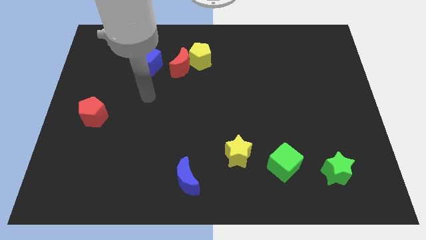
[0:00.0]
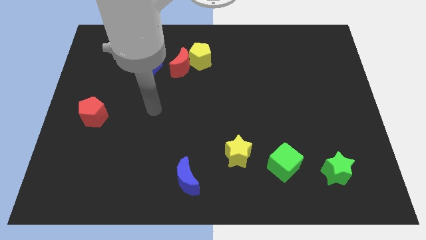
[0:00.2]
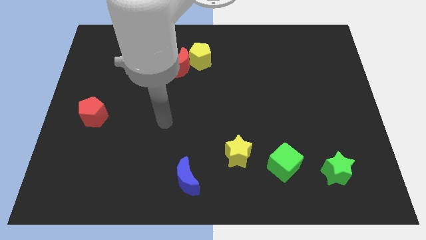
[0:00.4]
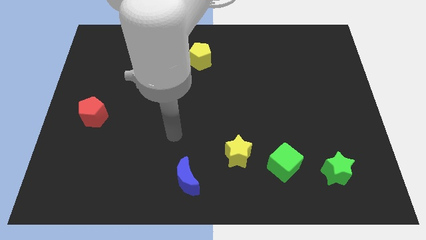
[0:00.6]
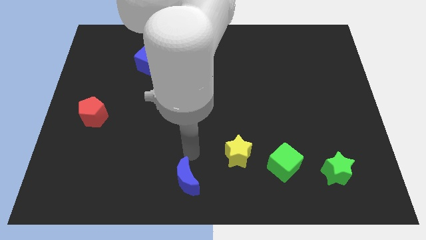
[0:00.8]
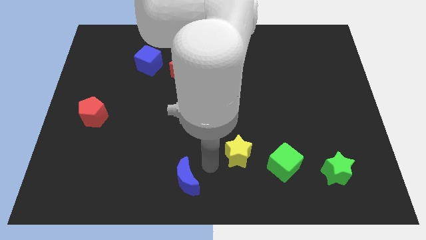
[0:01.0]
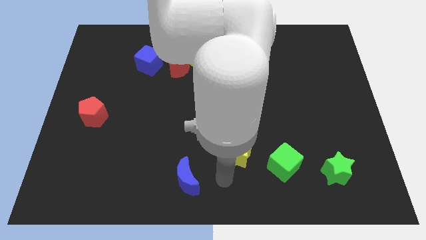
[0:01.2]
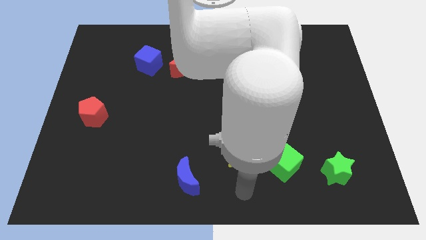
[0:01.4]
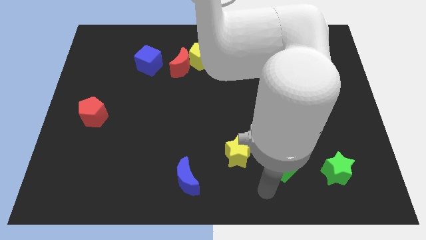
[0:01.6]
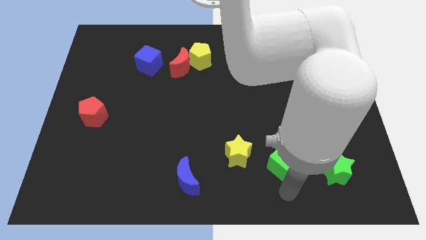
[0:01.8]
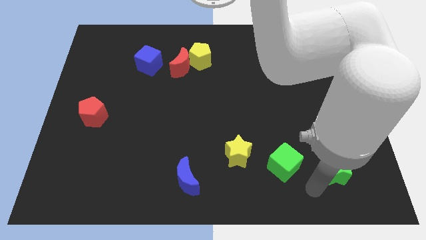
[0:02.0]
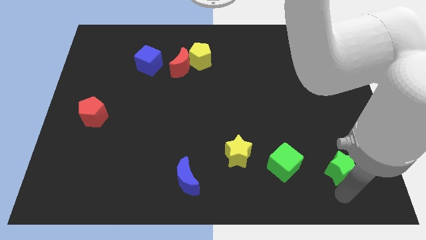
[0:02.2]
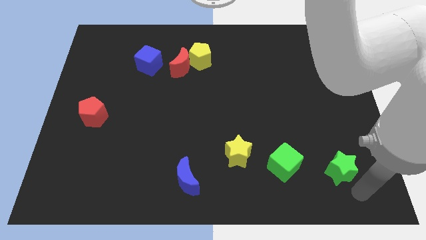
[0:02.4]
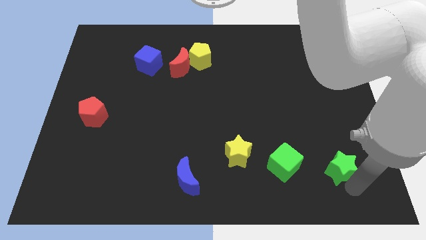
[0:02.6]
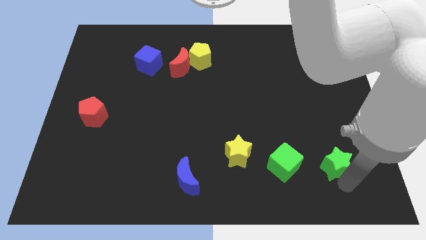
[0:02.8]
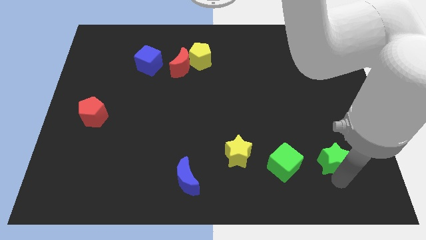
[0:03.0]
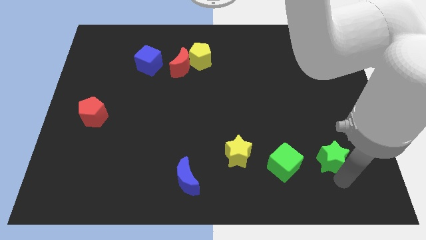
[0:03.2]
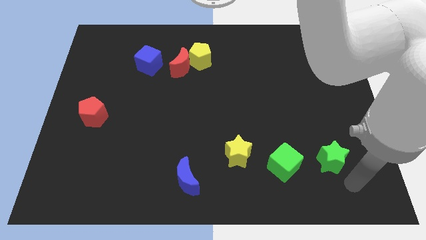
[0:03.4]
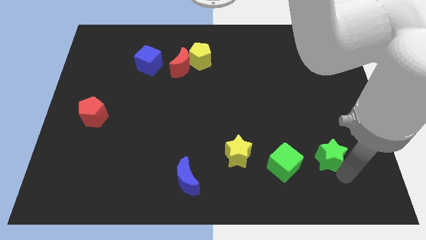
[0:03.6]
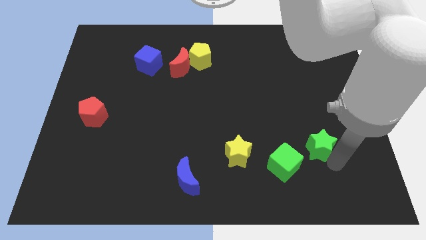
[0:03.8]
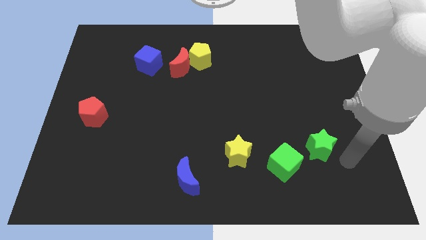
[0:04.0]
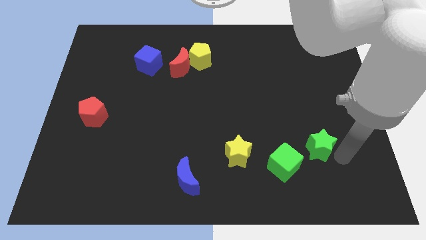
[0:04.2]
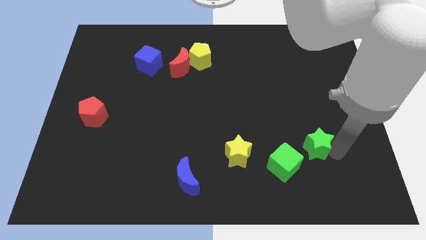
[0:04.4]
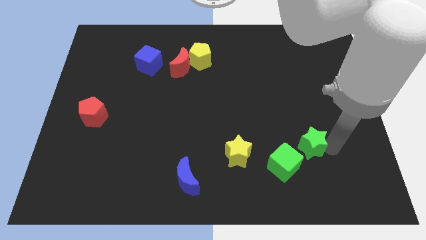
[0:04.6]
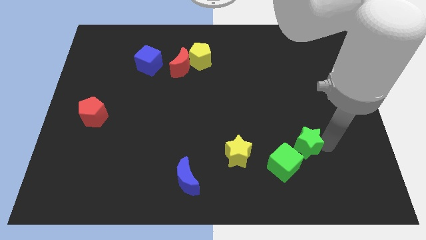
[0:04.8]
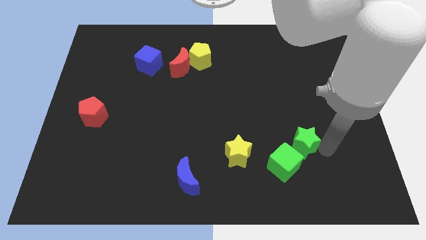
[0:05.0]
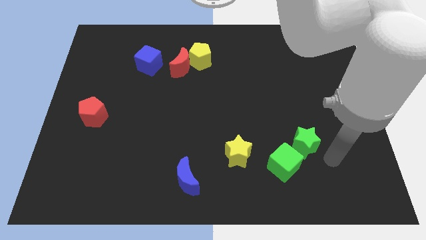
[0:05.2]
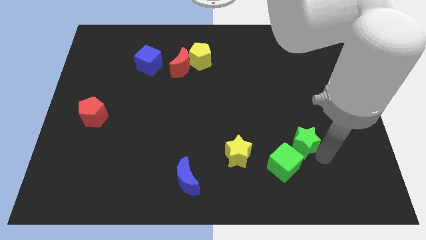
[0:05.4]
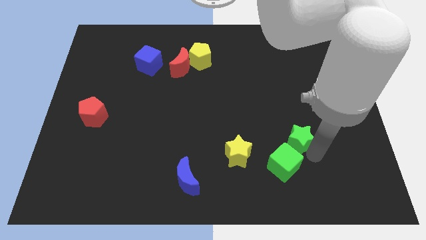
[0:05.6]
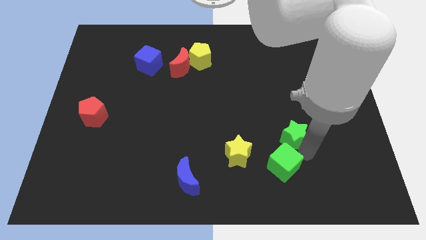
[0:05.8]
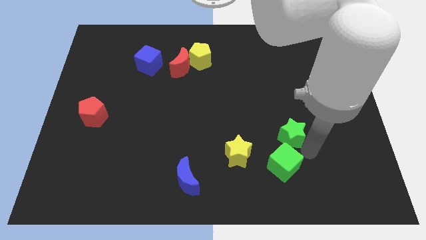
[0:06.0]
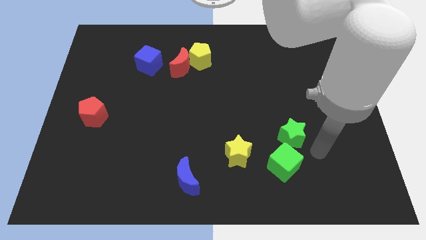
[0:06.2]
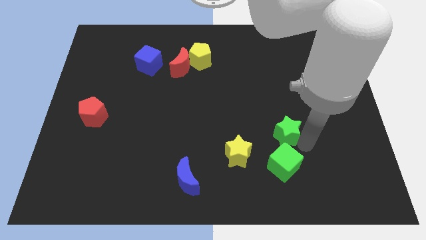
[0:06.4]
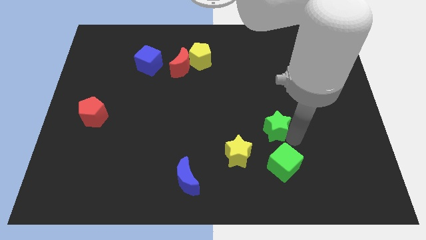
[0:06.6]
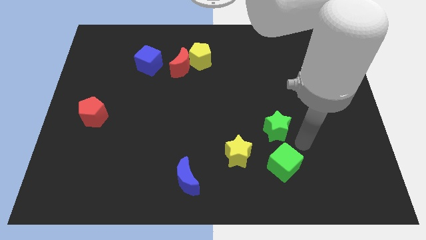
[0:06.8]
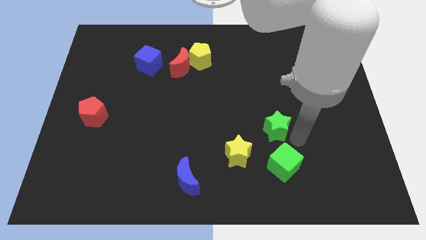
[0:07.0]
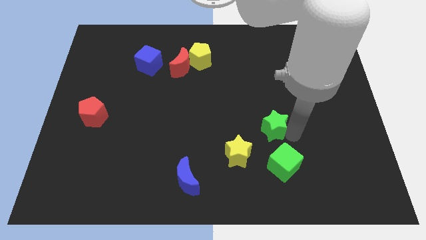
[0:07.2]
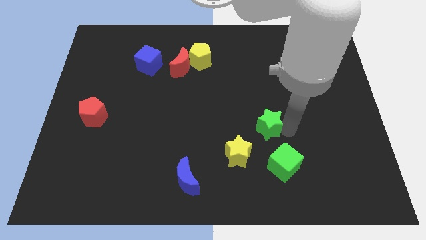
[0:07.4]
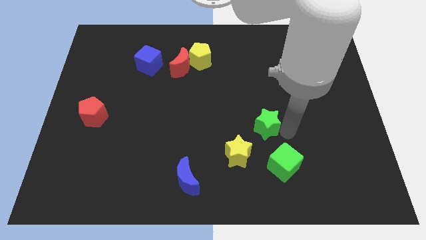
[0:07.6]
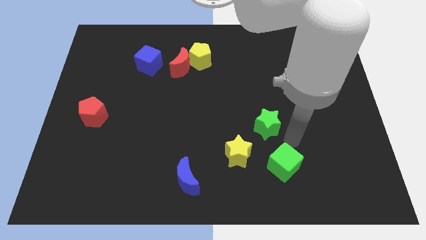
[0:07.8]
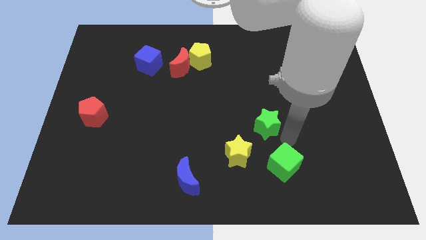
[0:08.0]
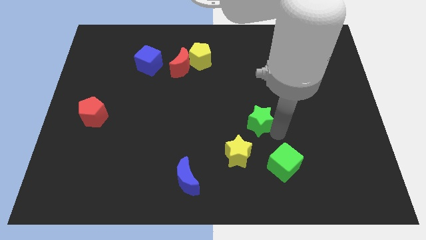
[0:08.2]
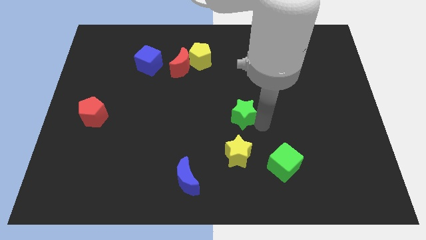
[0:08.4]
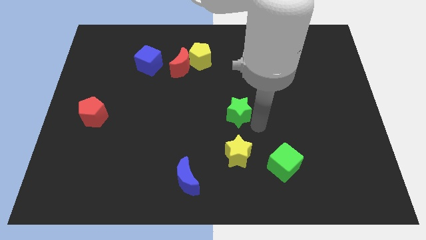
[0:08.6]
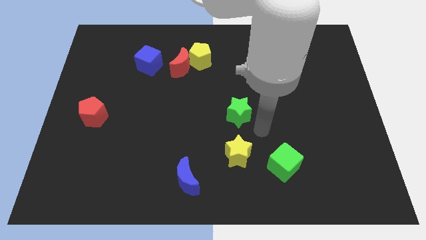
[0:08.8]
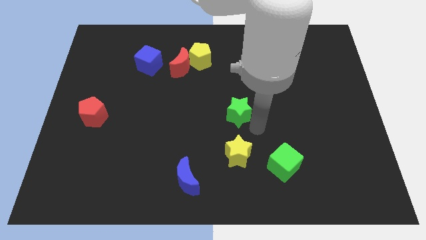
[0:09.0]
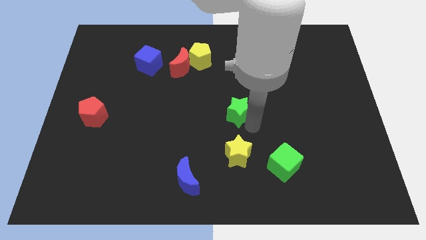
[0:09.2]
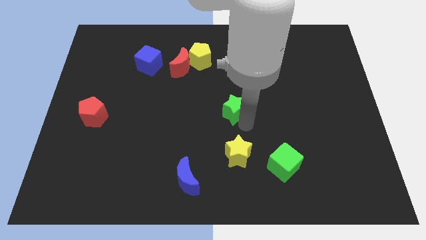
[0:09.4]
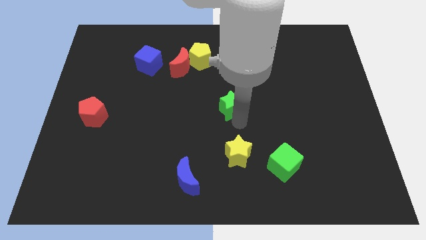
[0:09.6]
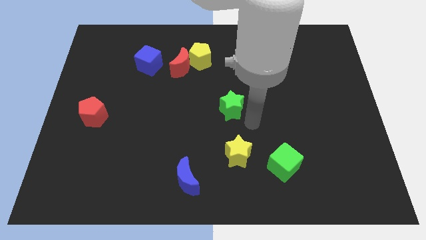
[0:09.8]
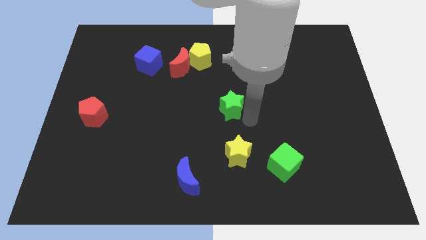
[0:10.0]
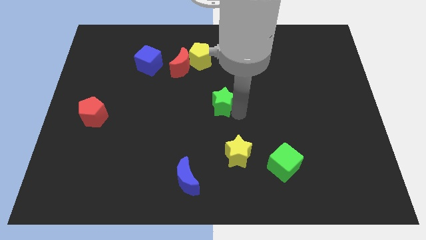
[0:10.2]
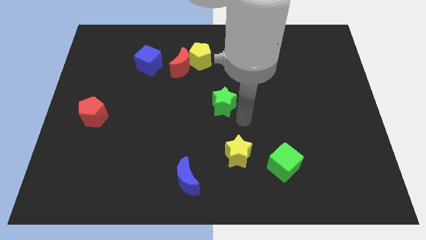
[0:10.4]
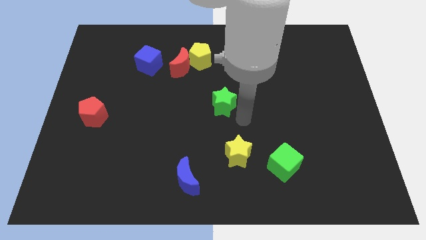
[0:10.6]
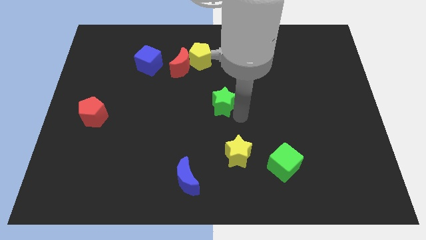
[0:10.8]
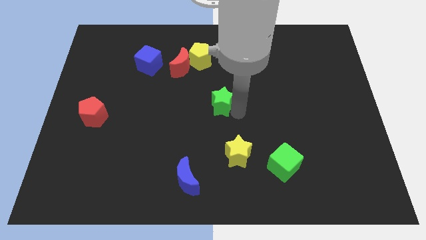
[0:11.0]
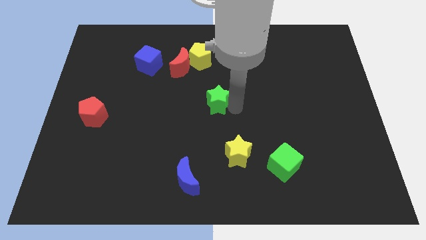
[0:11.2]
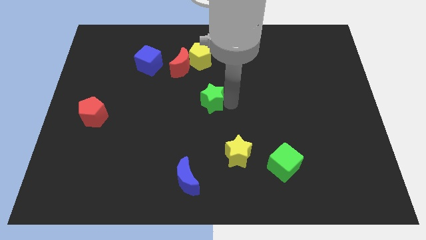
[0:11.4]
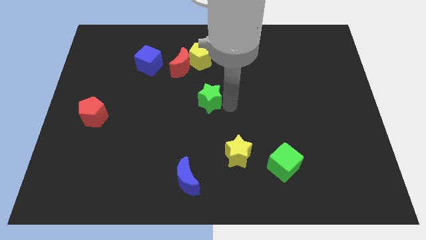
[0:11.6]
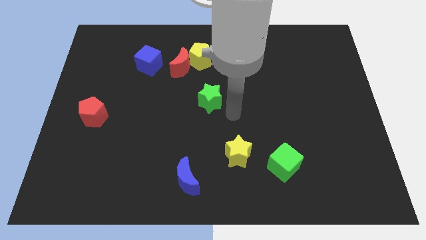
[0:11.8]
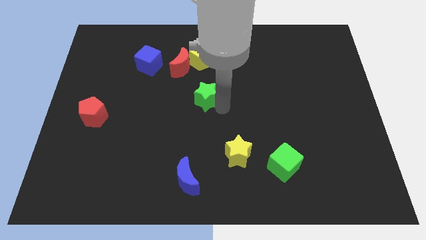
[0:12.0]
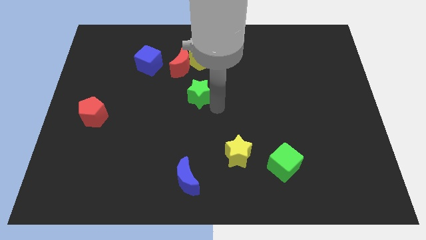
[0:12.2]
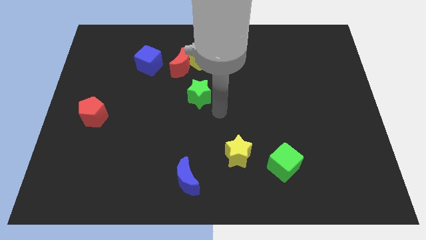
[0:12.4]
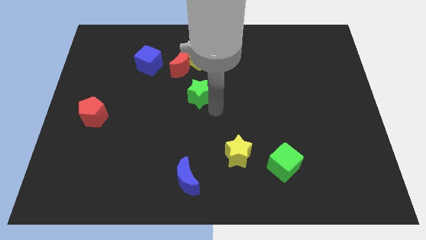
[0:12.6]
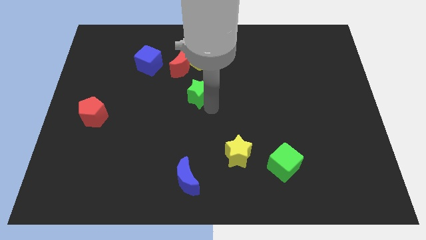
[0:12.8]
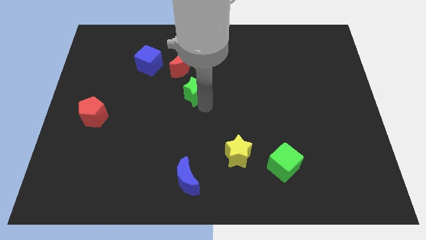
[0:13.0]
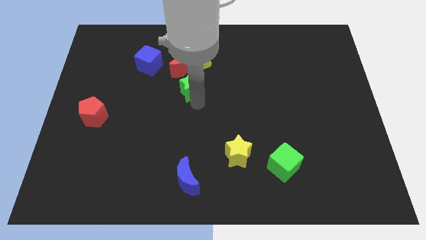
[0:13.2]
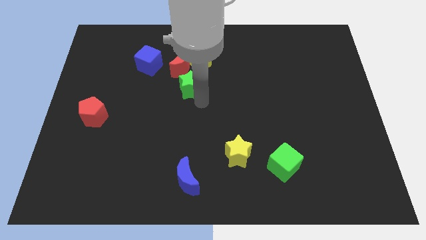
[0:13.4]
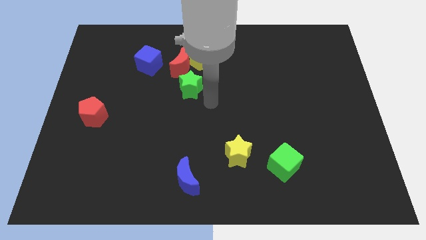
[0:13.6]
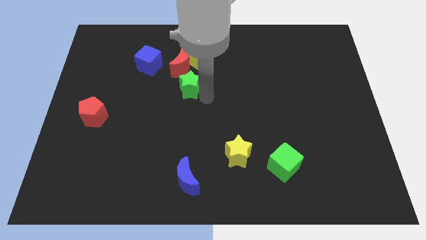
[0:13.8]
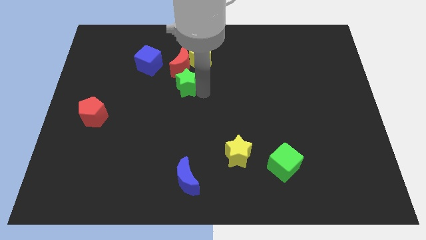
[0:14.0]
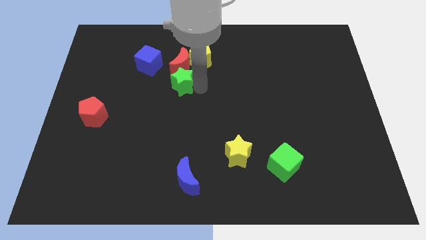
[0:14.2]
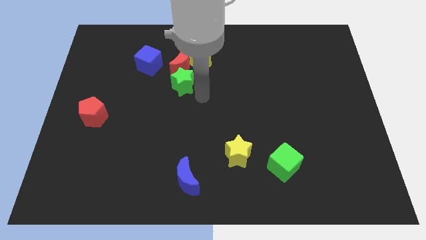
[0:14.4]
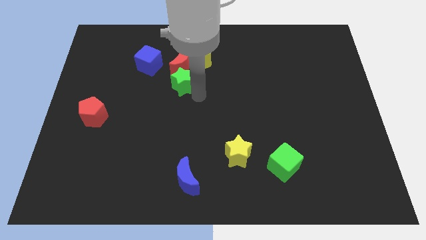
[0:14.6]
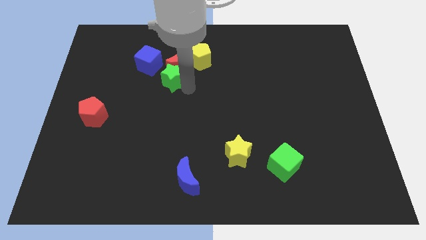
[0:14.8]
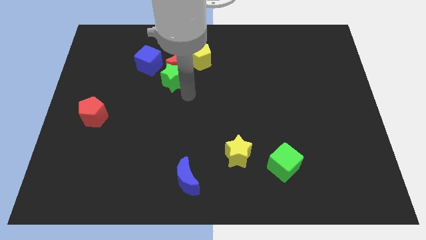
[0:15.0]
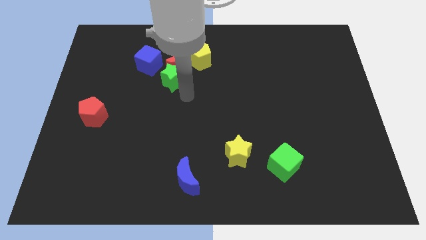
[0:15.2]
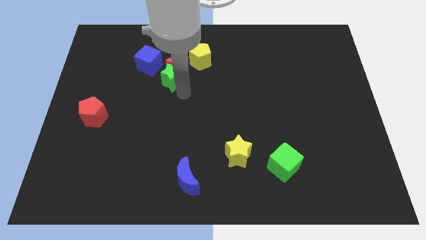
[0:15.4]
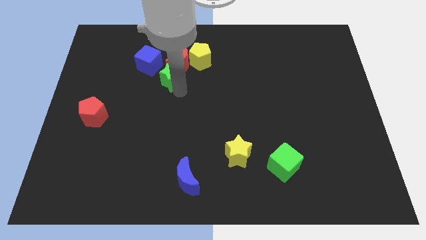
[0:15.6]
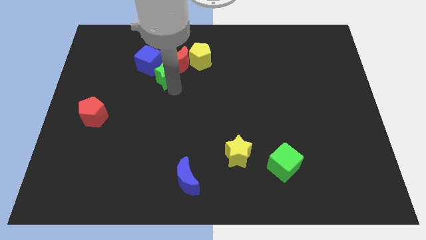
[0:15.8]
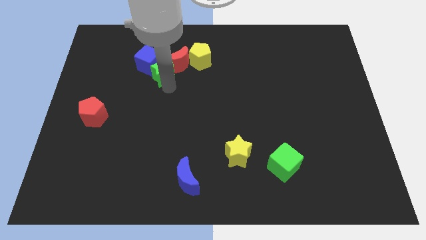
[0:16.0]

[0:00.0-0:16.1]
move the green star towards the blue cube
